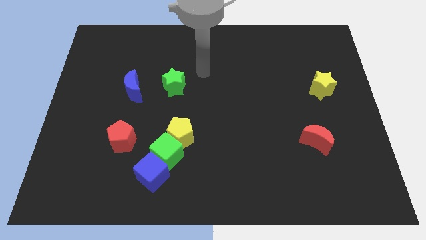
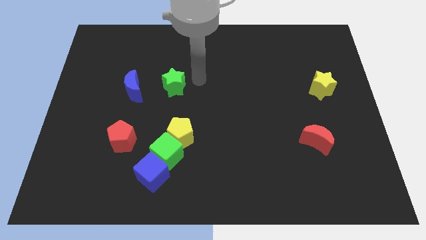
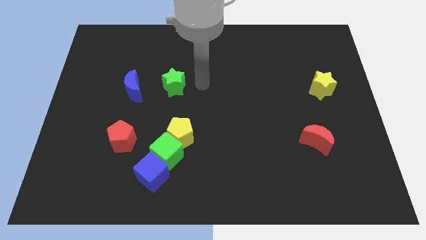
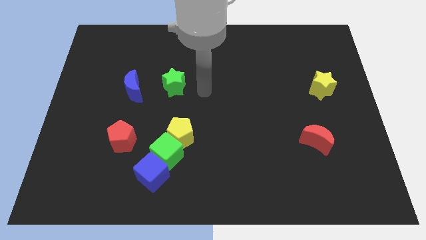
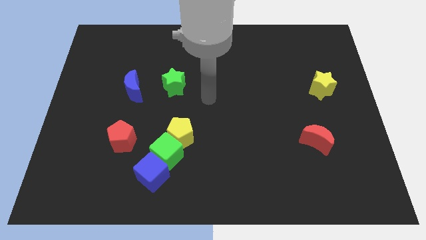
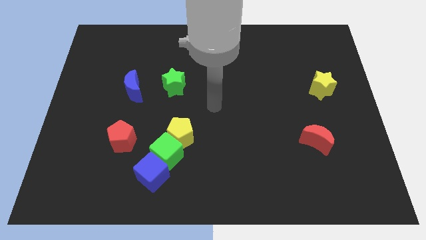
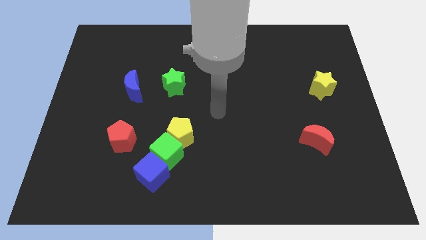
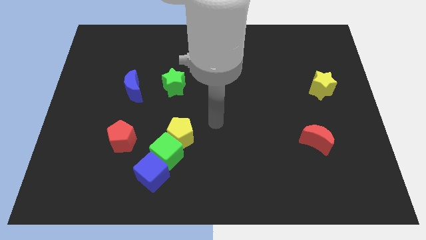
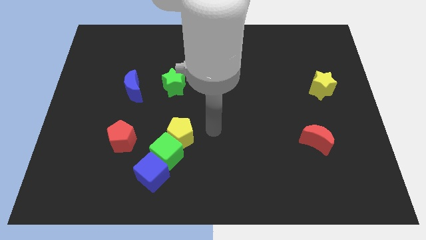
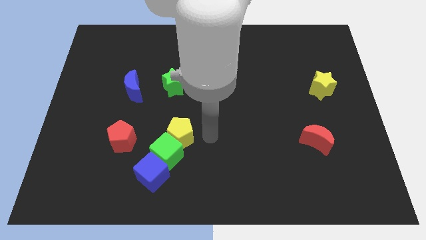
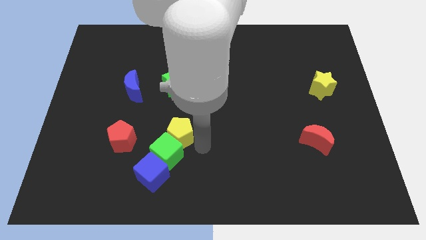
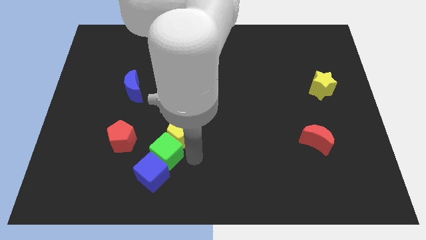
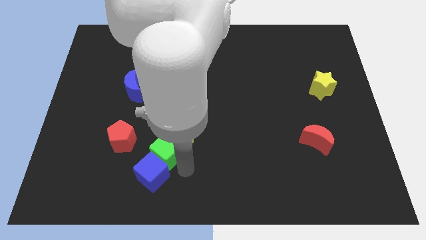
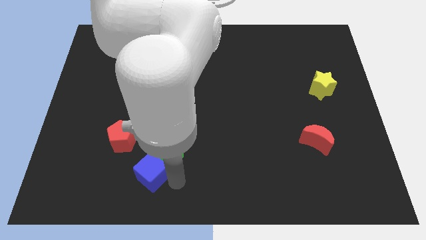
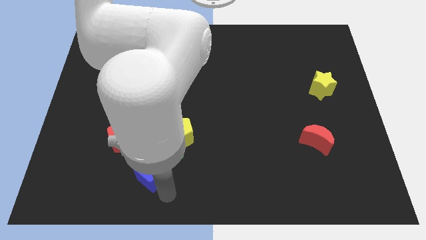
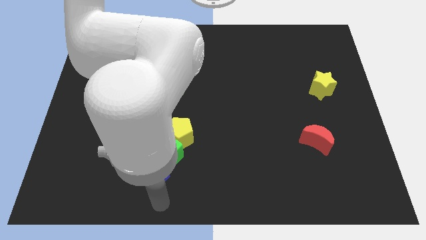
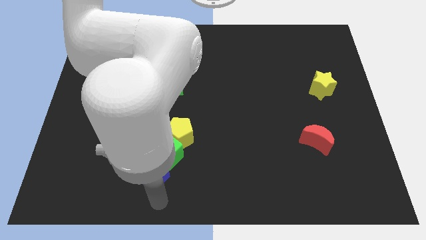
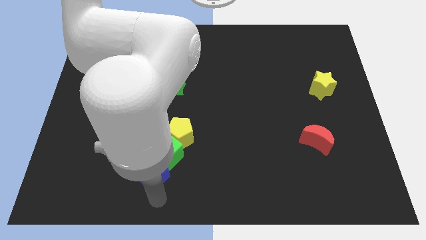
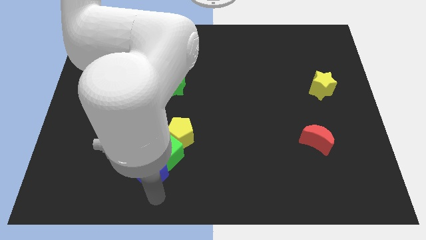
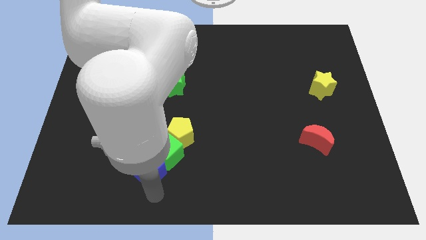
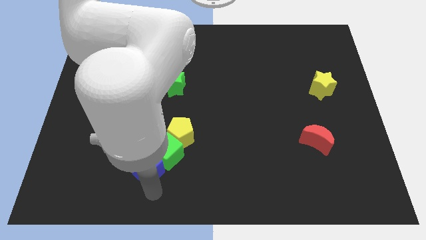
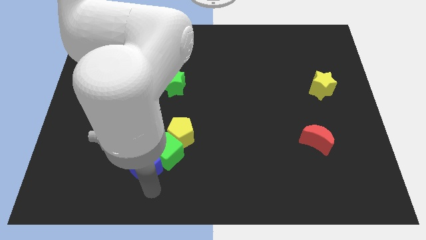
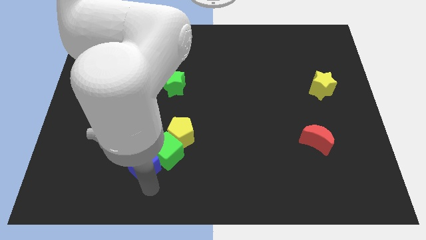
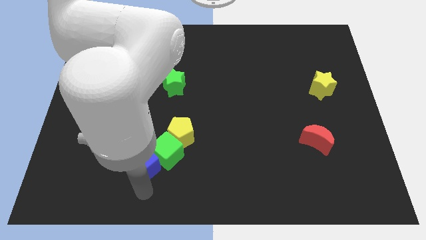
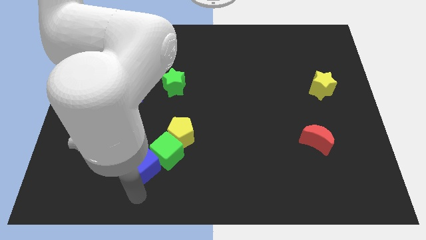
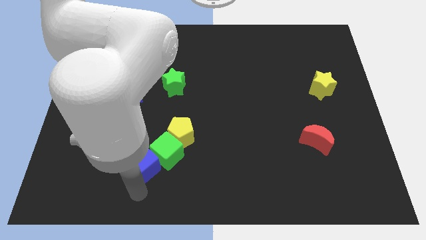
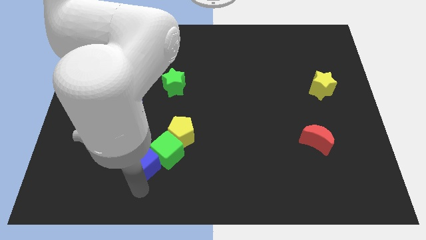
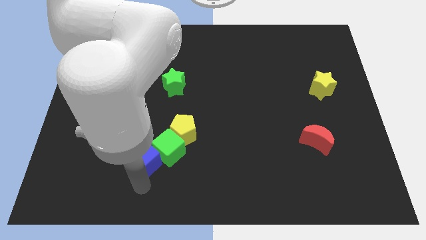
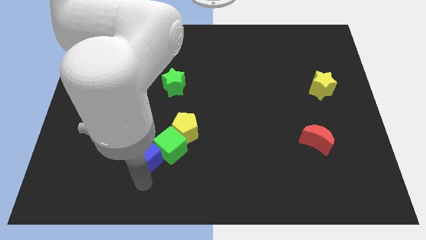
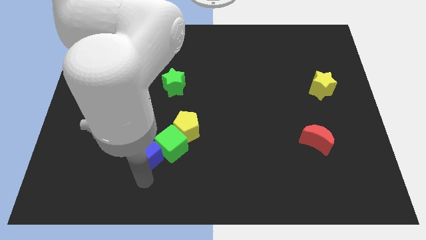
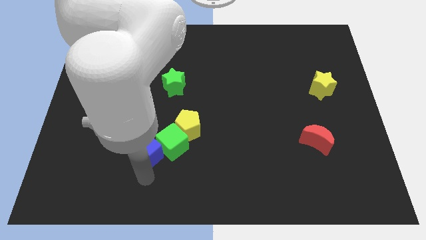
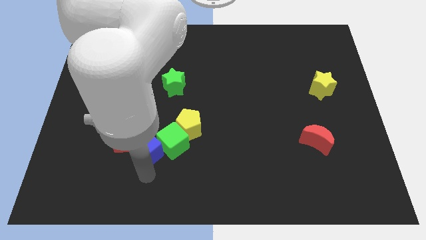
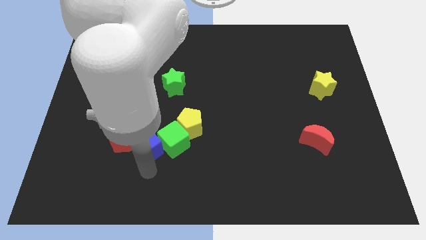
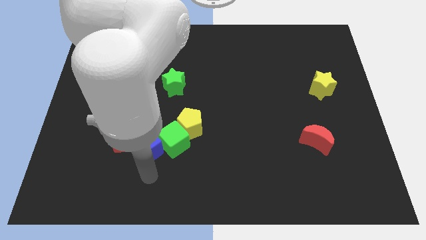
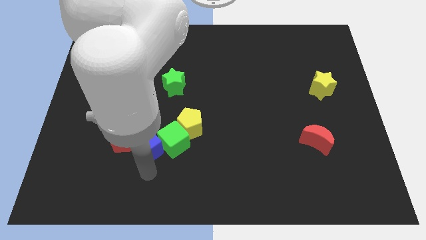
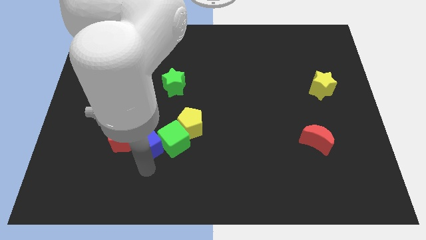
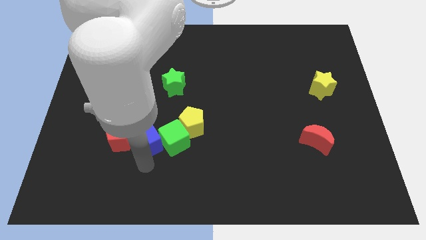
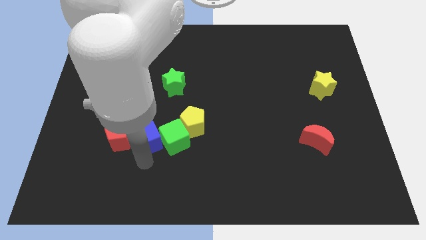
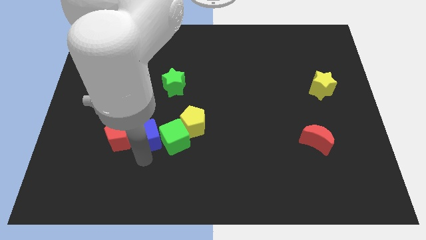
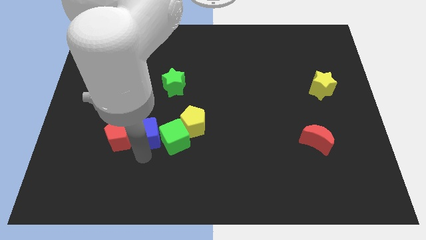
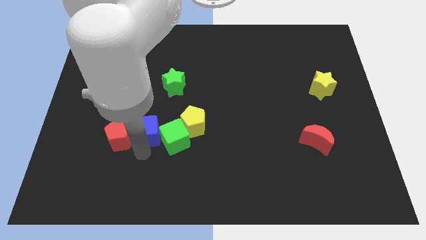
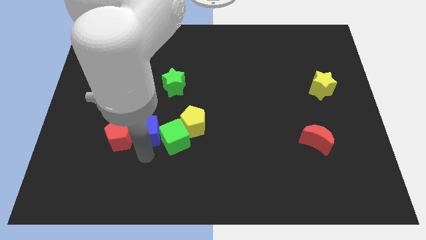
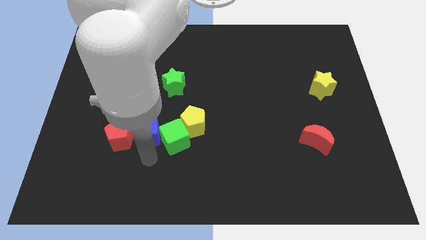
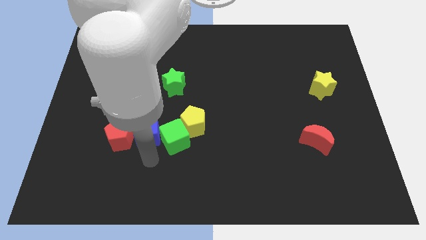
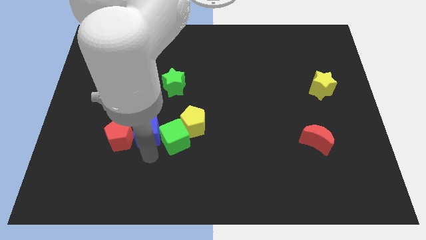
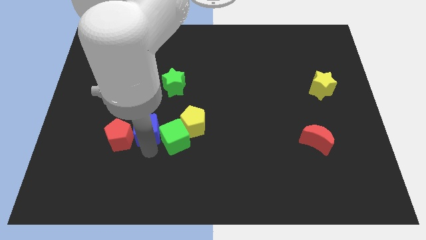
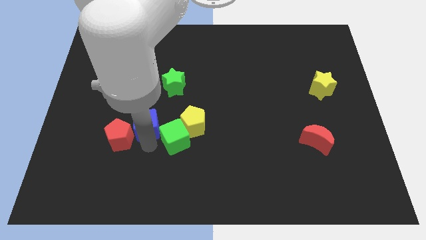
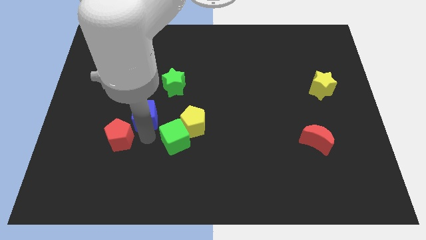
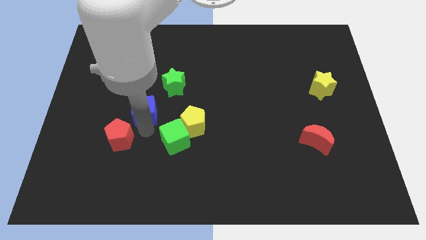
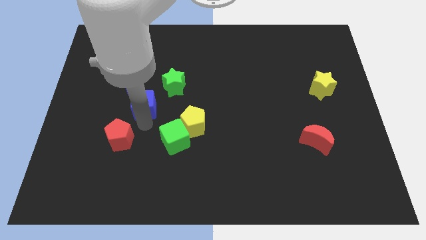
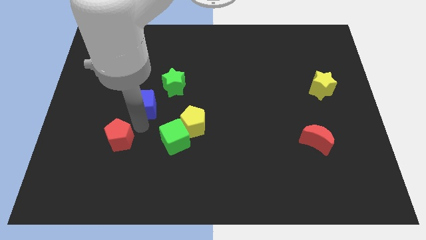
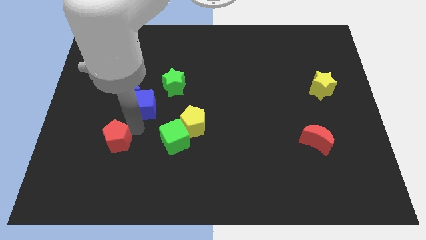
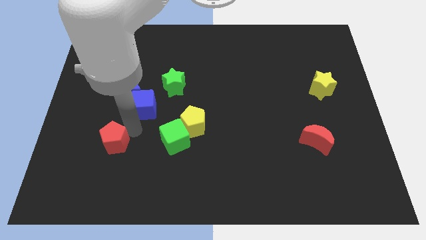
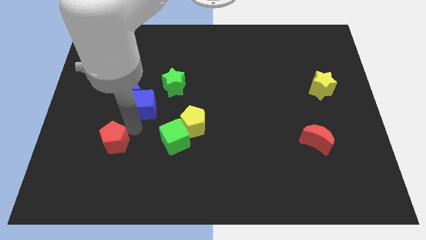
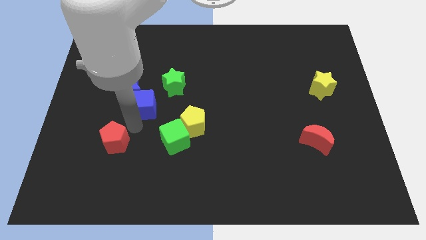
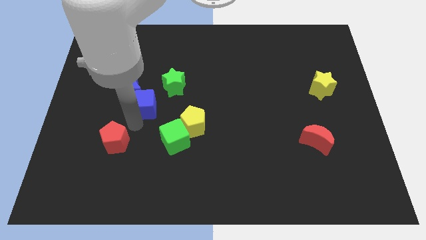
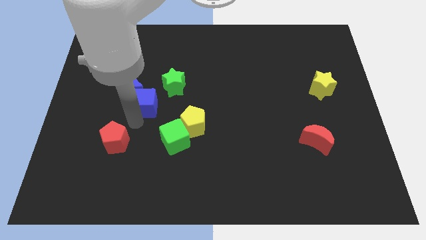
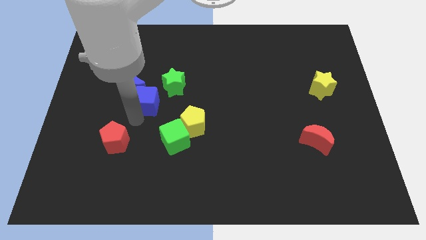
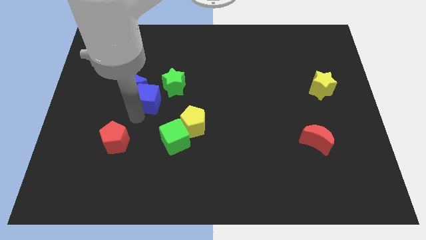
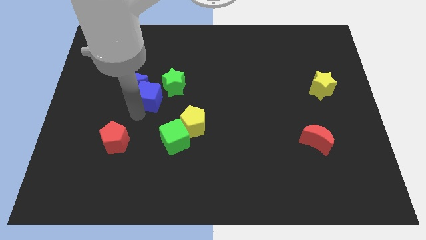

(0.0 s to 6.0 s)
push the blue cube upwards

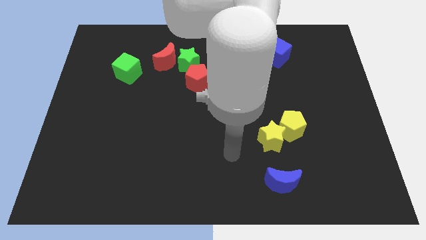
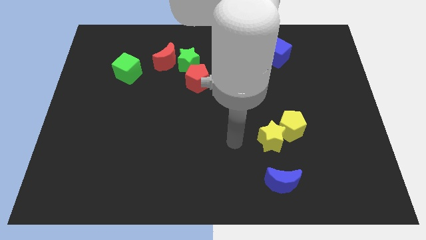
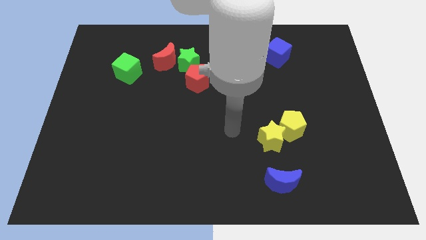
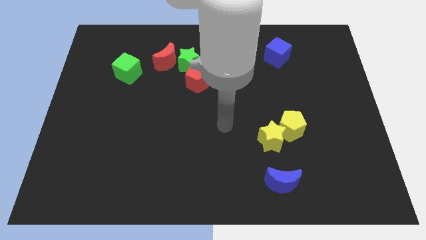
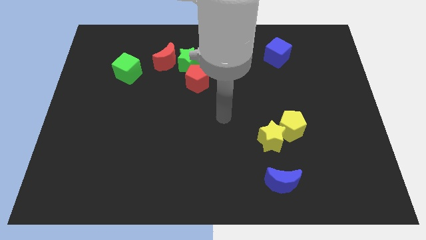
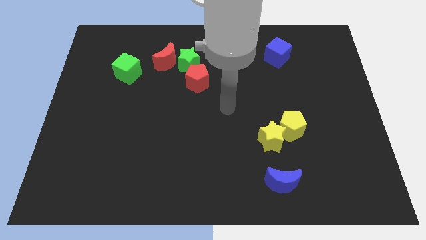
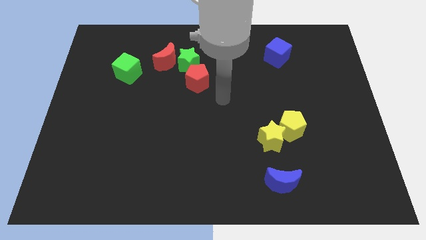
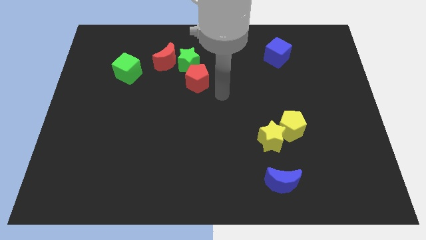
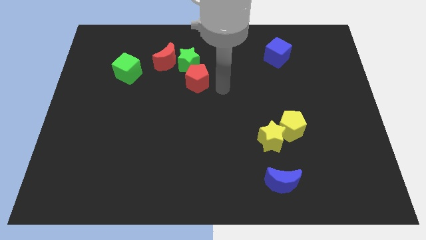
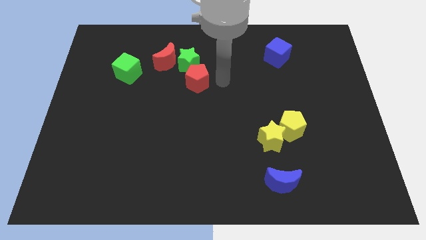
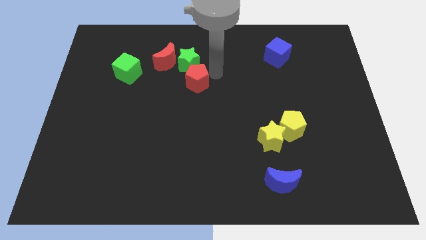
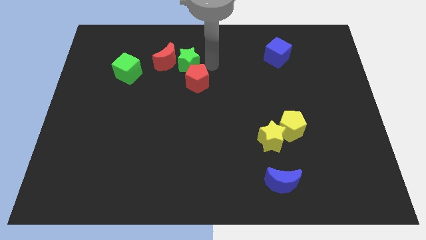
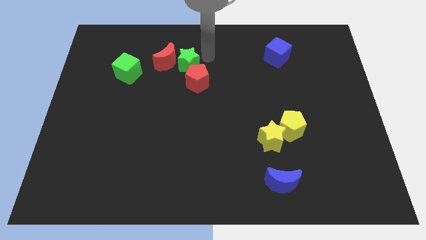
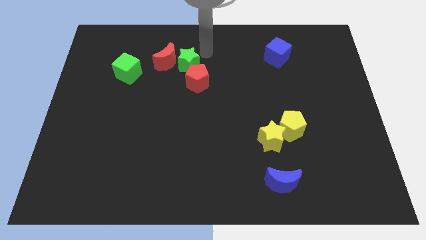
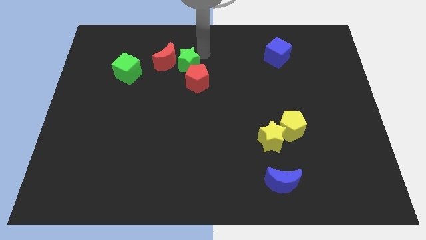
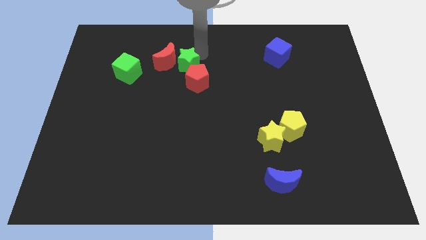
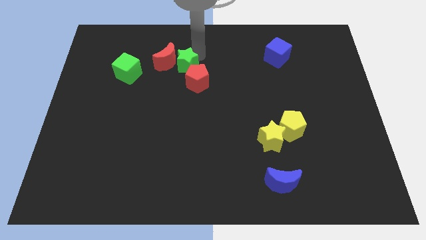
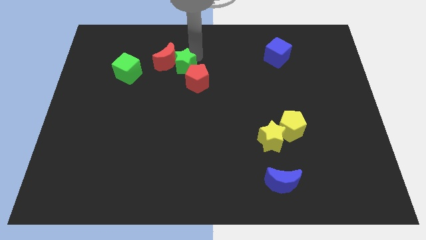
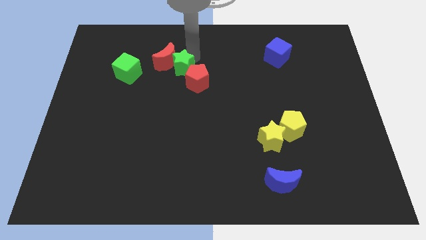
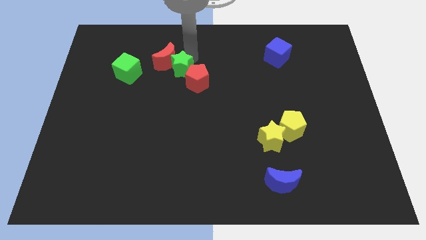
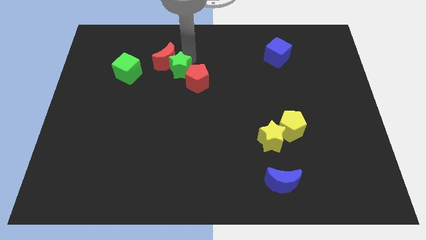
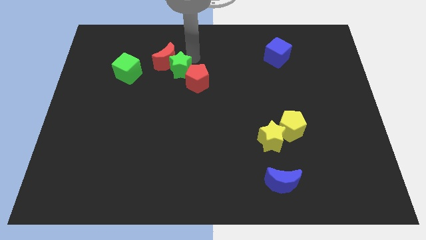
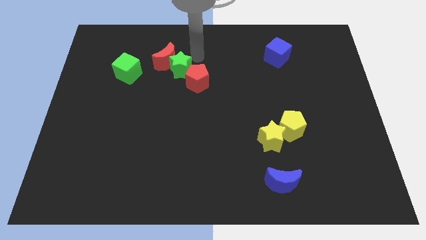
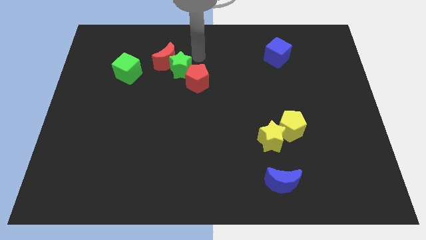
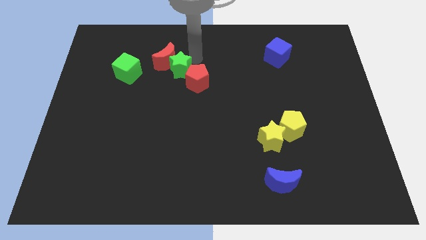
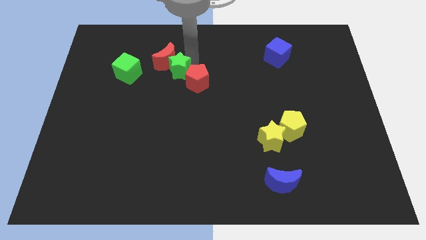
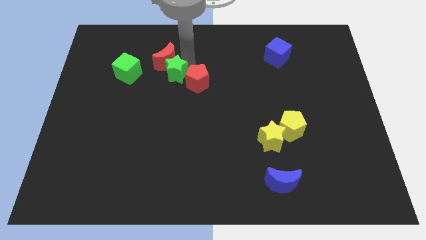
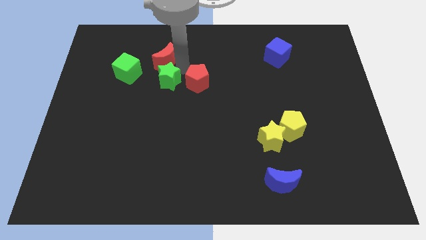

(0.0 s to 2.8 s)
slide the green star a little bit downwards and then left
